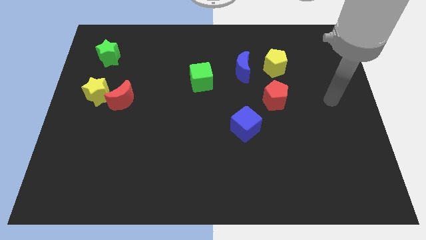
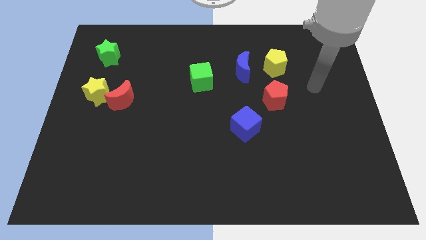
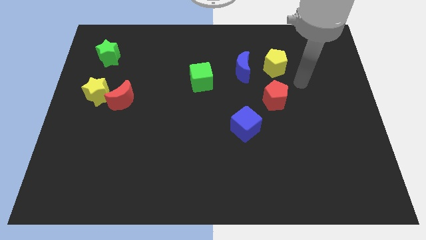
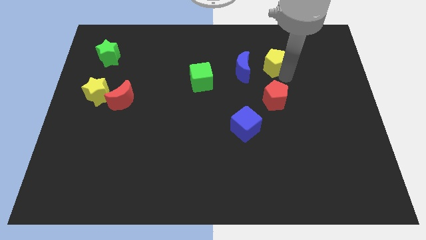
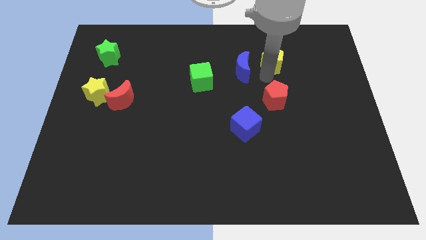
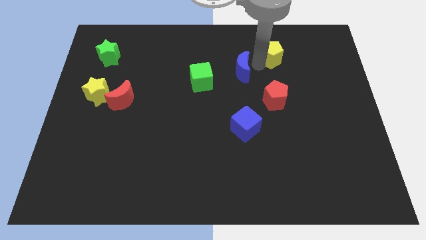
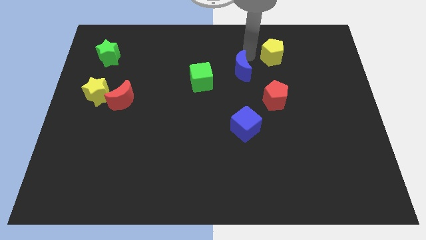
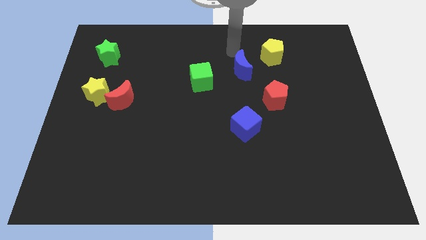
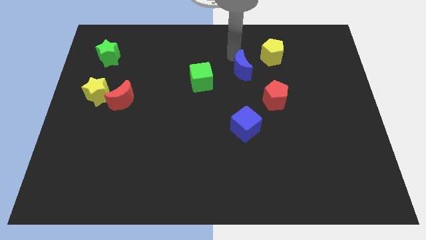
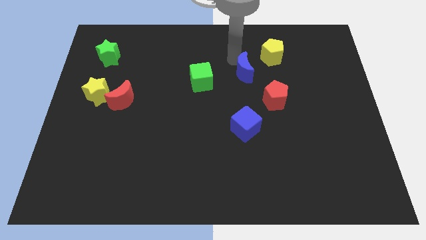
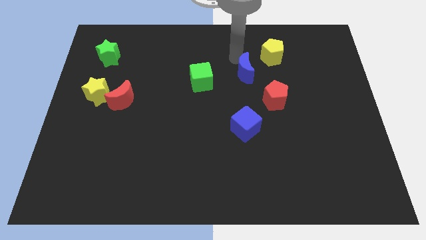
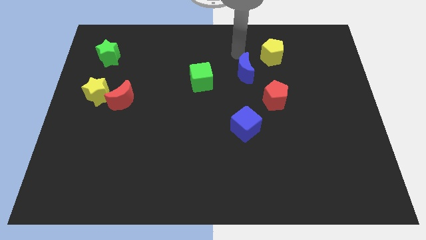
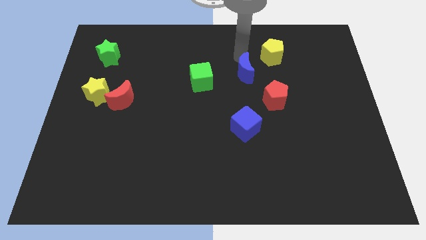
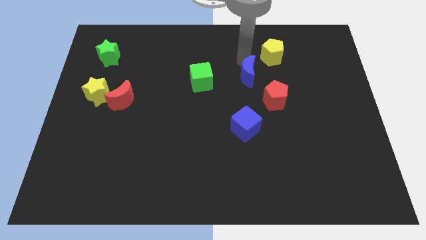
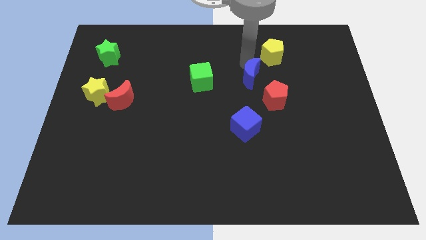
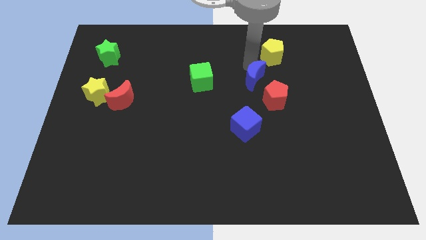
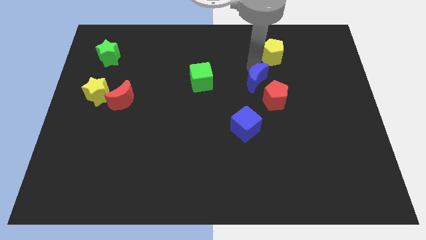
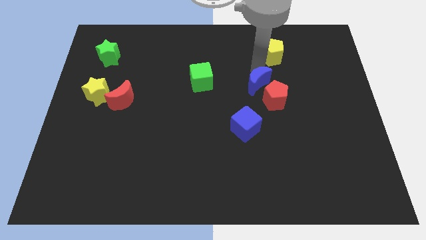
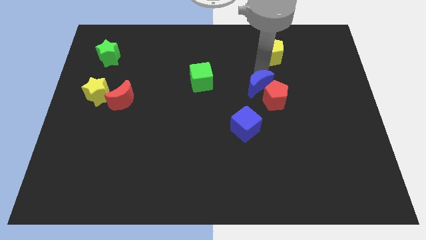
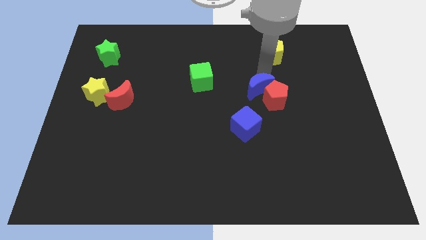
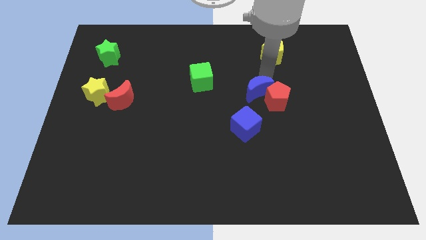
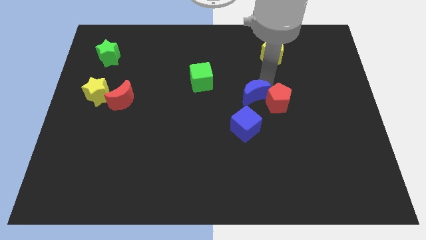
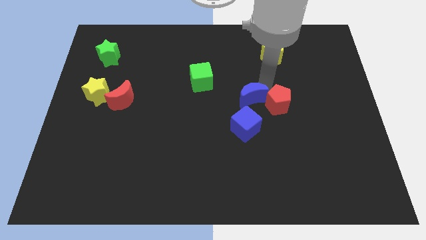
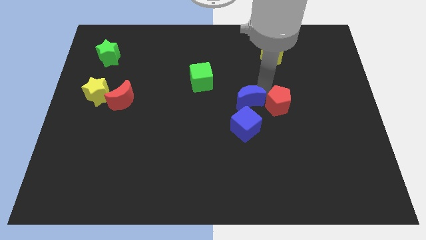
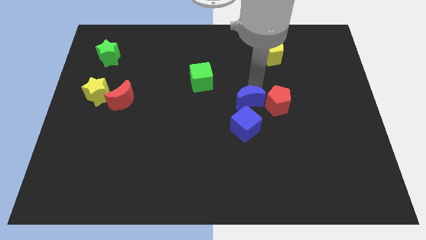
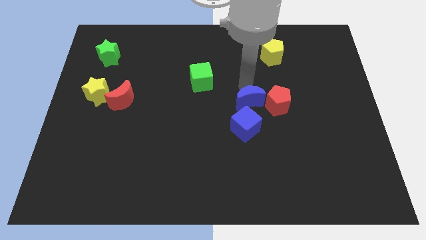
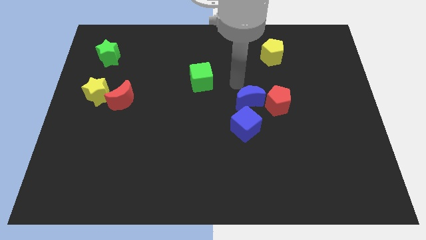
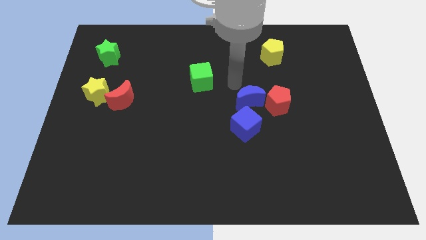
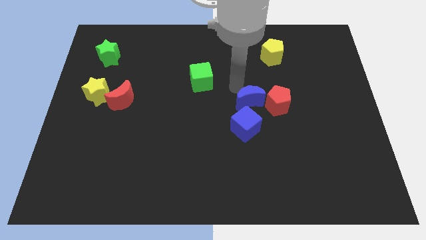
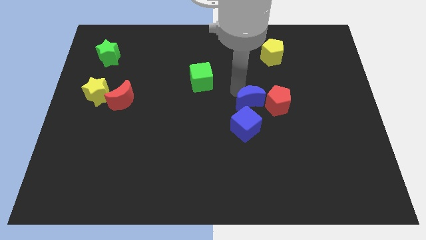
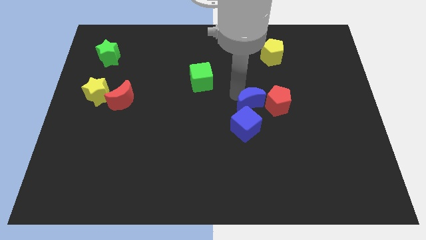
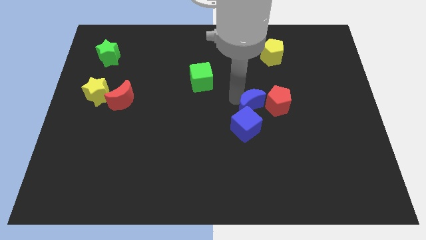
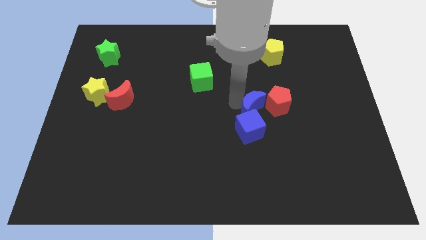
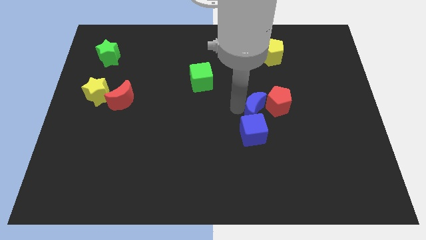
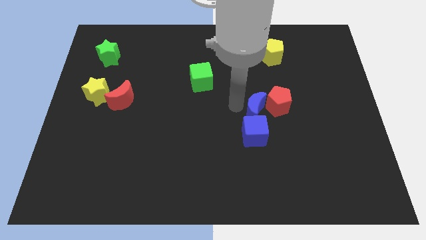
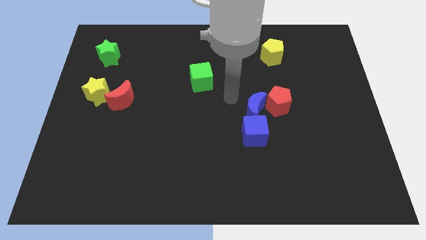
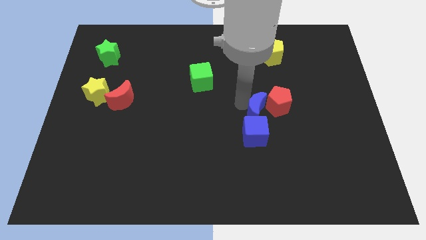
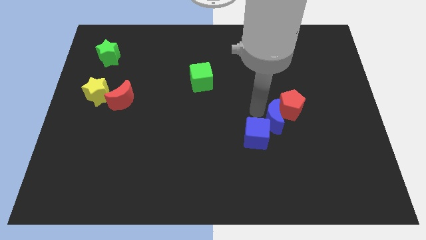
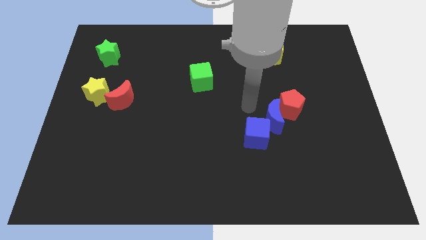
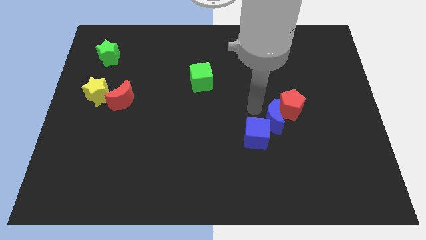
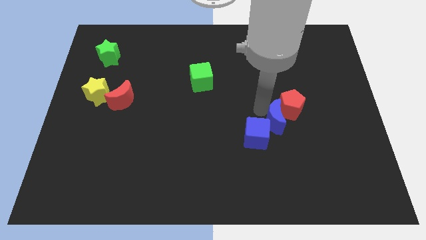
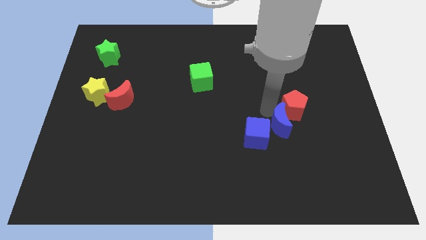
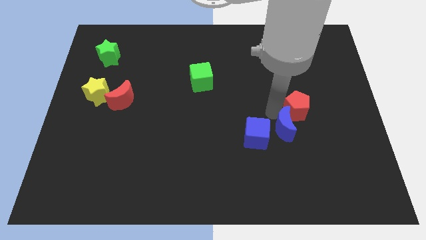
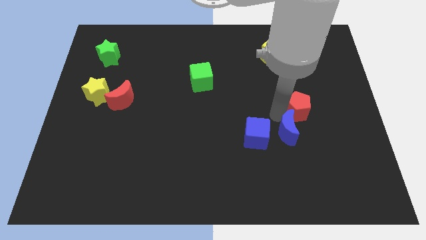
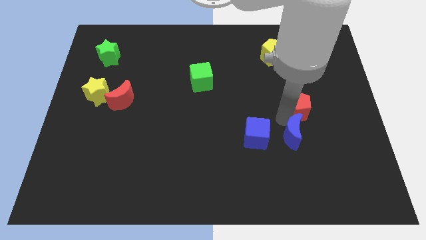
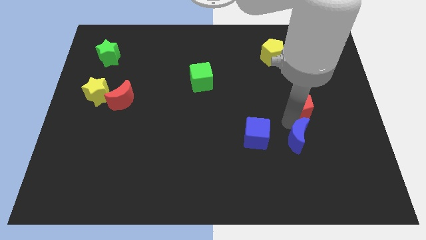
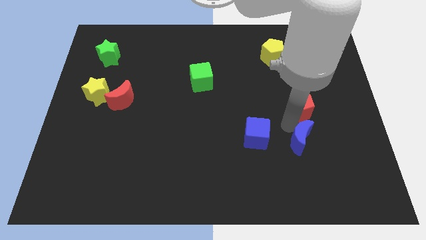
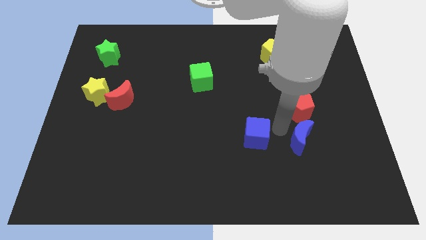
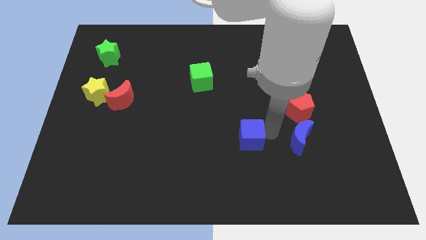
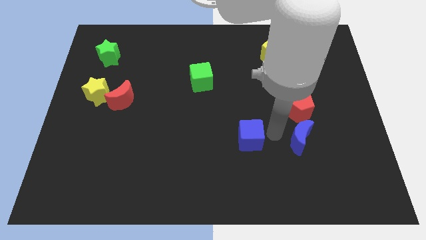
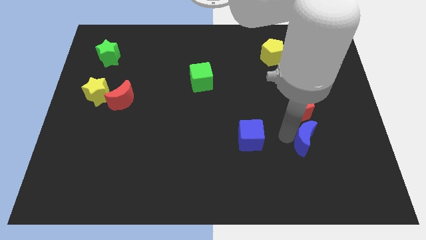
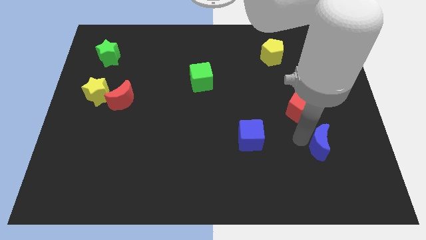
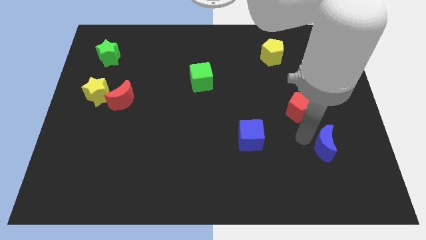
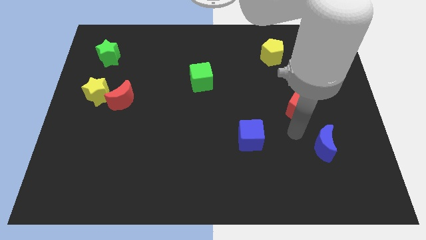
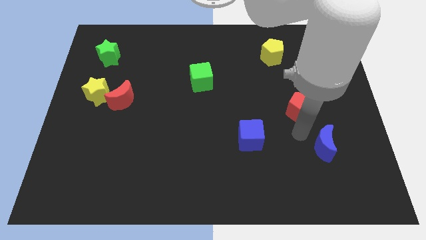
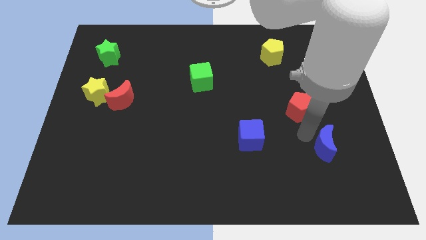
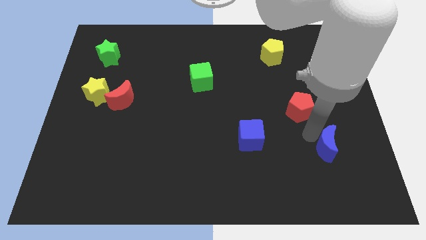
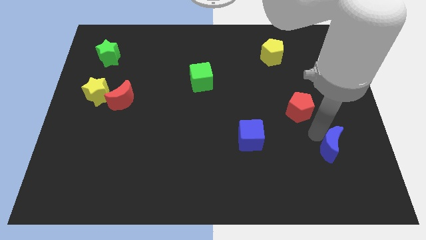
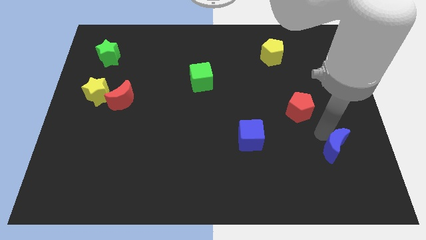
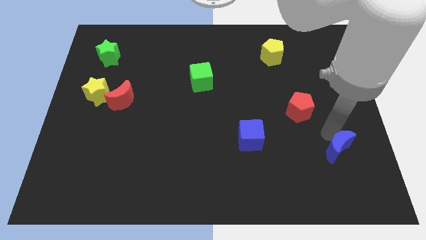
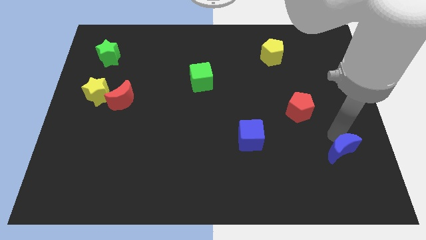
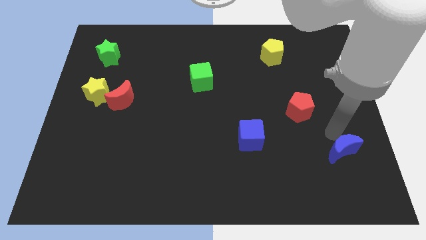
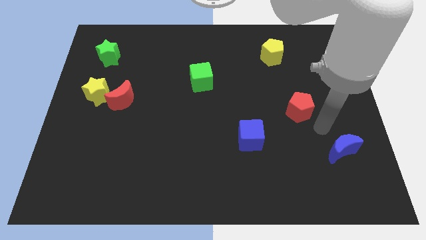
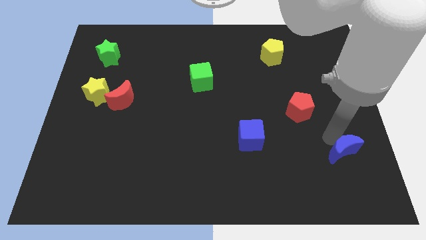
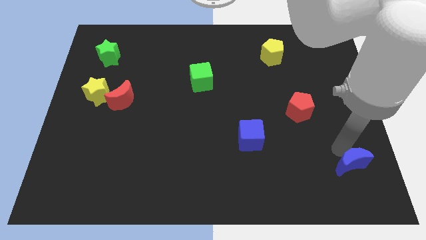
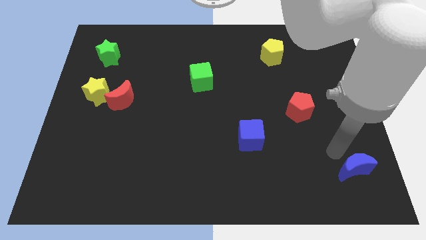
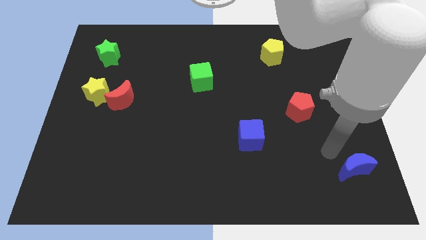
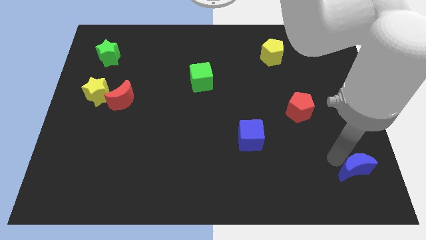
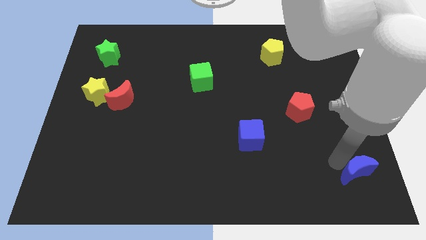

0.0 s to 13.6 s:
put the blue moon to the bottom right

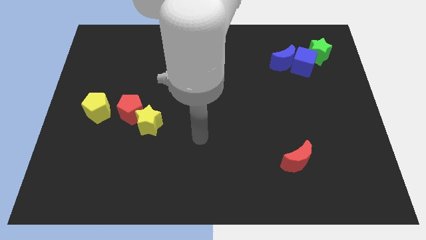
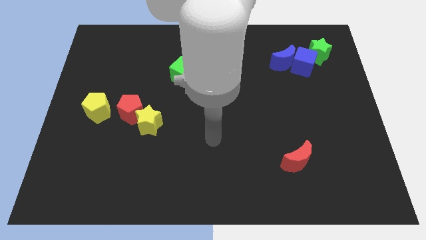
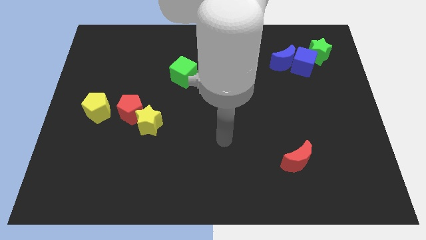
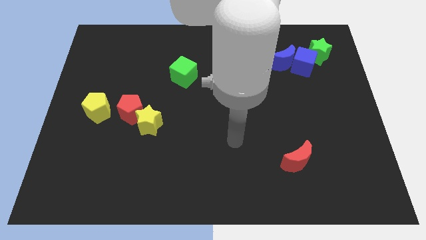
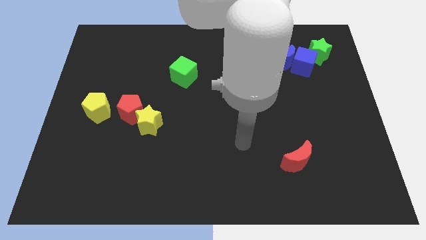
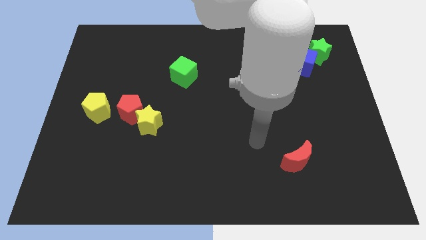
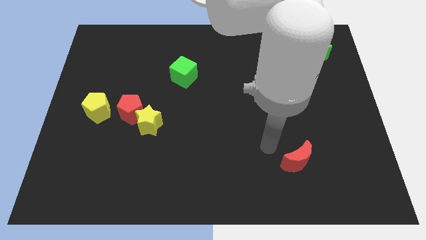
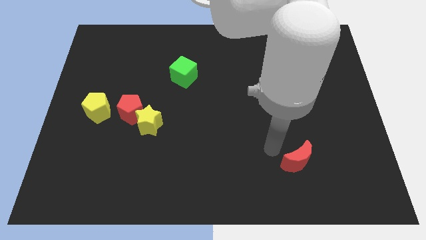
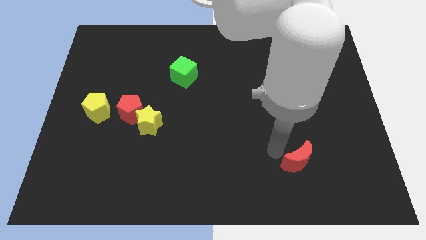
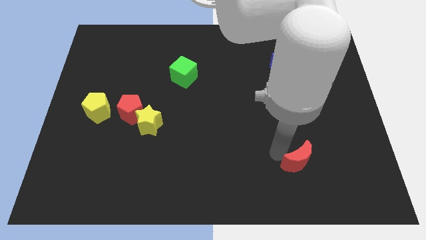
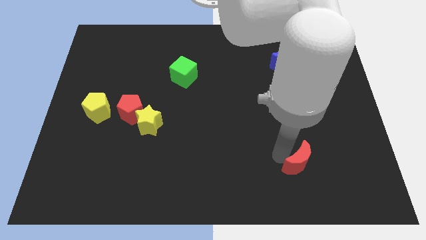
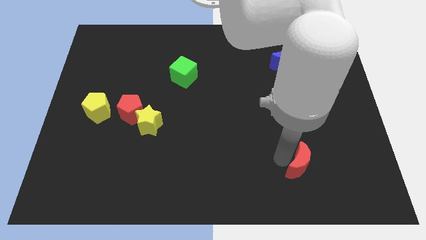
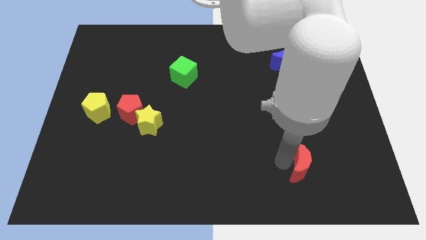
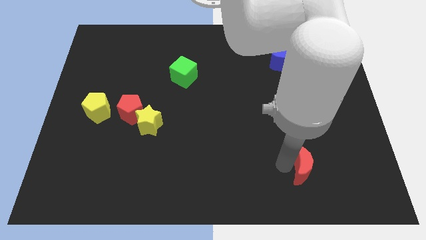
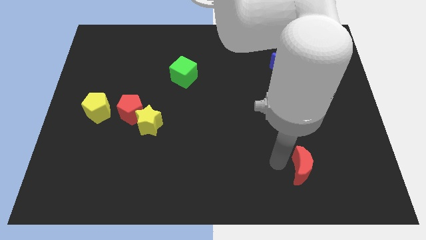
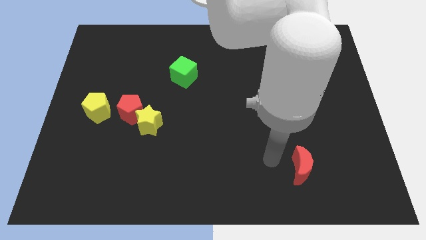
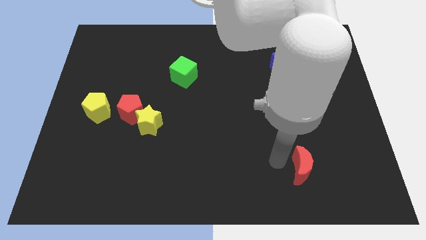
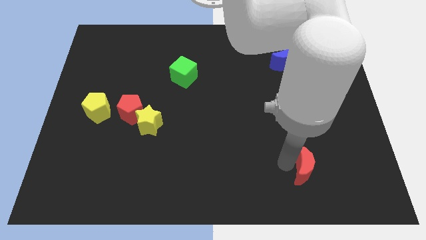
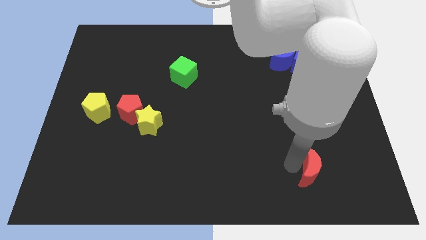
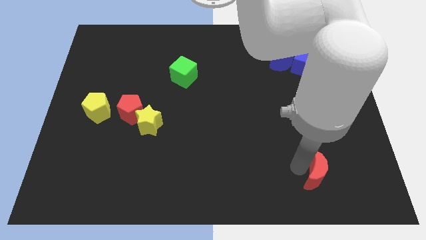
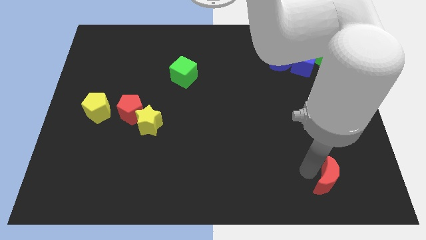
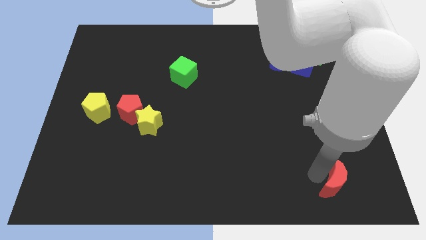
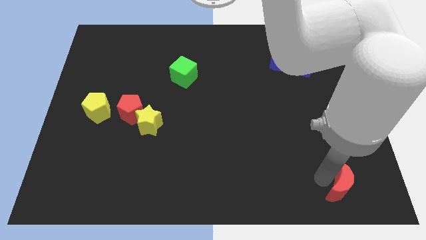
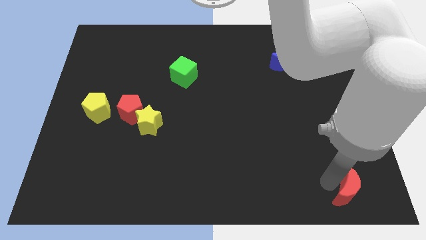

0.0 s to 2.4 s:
slide the red moon to the lower right corner
